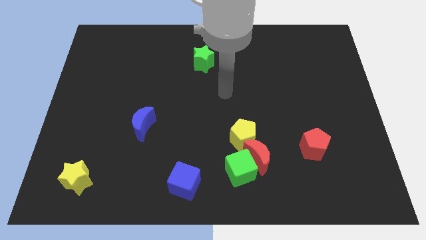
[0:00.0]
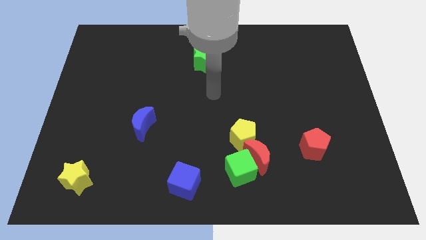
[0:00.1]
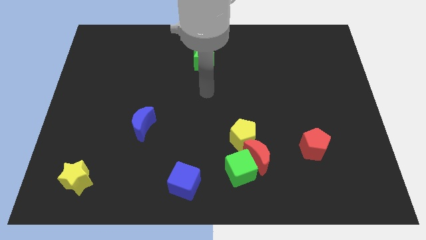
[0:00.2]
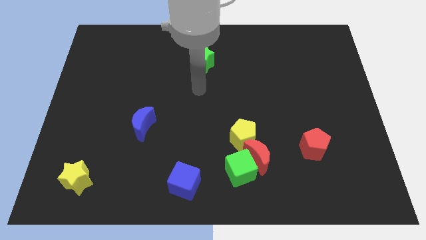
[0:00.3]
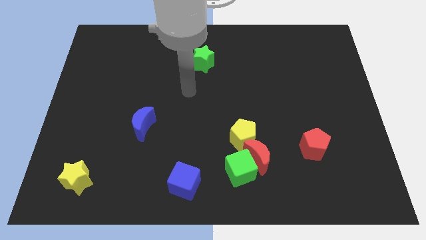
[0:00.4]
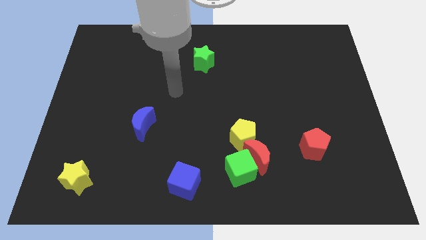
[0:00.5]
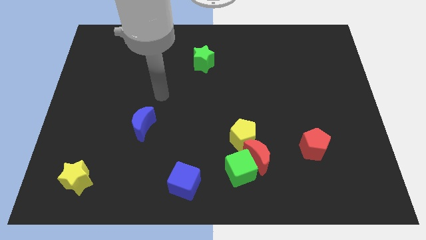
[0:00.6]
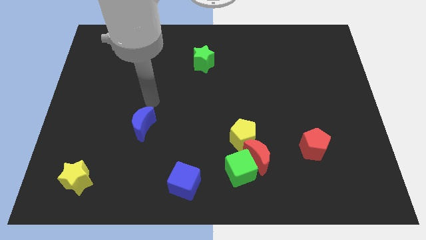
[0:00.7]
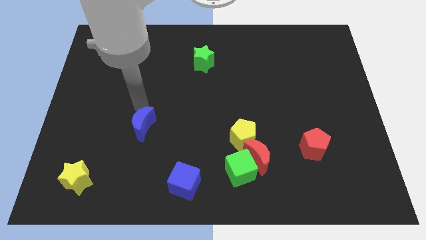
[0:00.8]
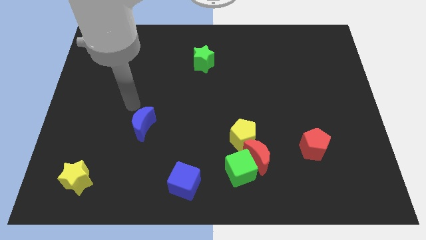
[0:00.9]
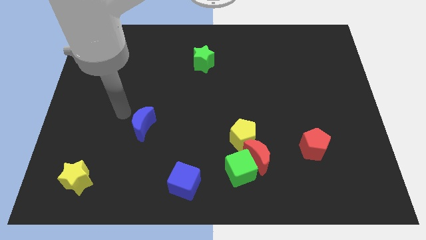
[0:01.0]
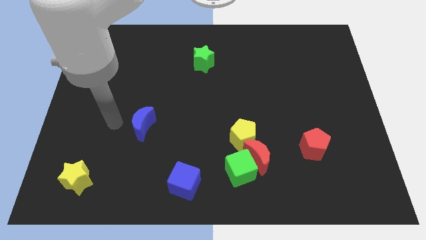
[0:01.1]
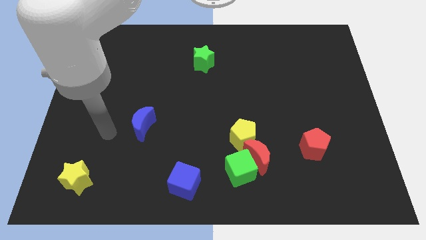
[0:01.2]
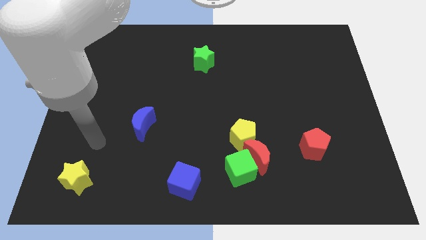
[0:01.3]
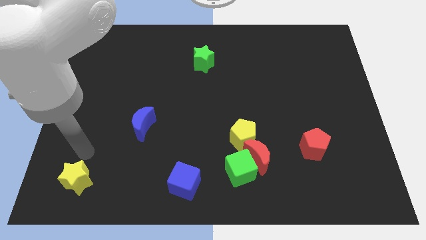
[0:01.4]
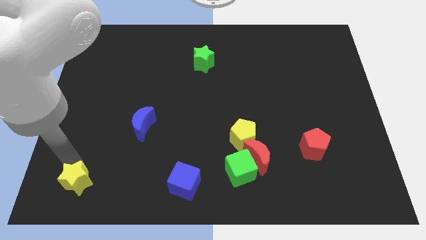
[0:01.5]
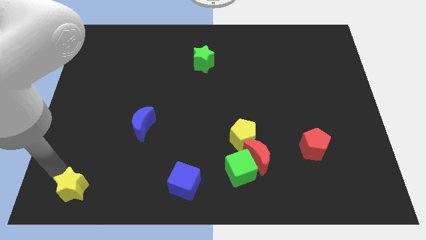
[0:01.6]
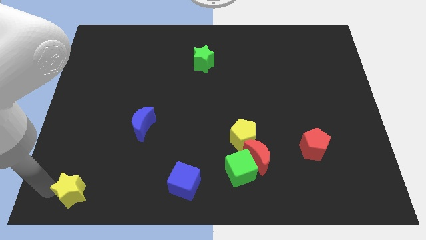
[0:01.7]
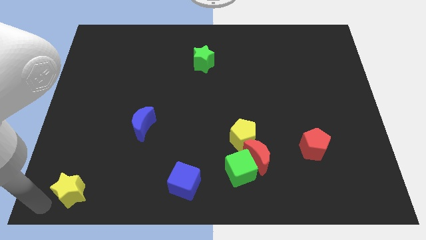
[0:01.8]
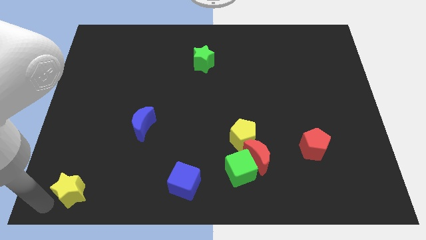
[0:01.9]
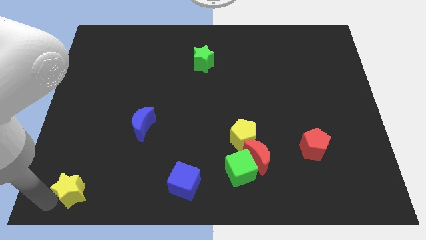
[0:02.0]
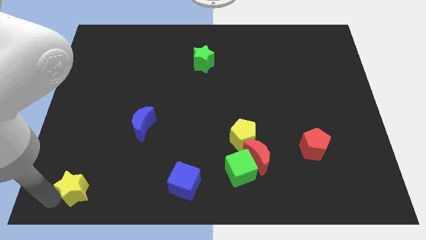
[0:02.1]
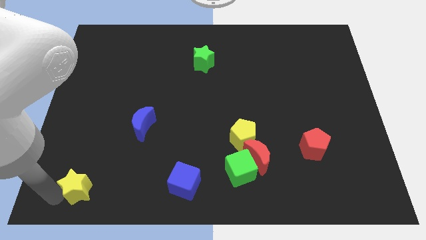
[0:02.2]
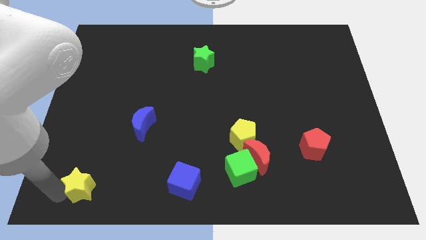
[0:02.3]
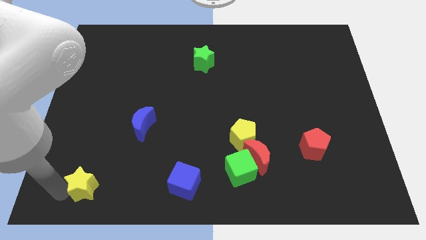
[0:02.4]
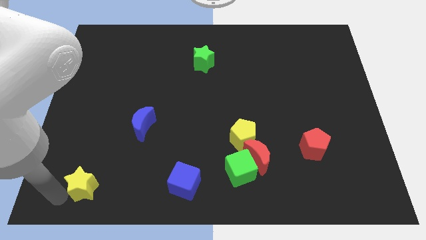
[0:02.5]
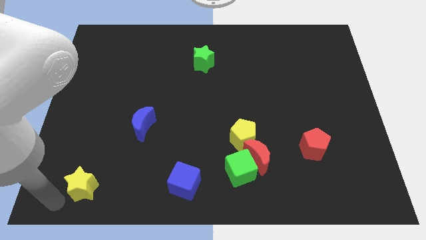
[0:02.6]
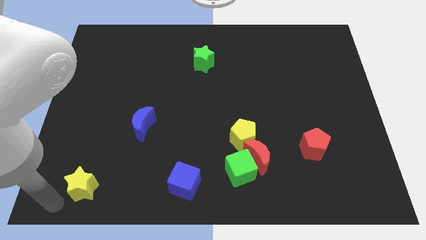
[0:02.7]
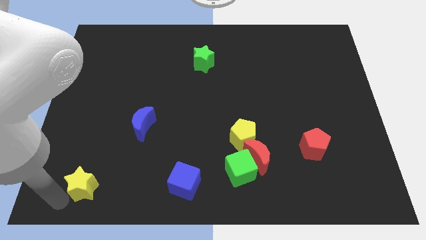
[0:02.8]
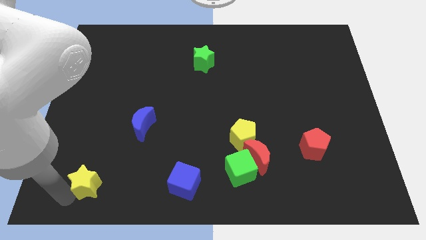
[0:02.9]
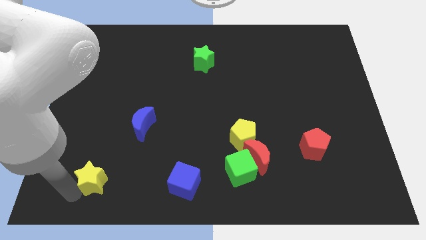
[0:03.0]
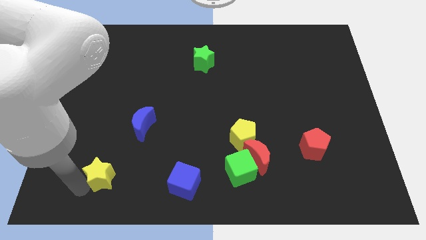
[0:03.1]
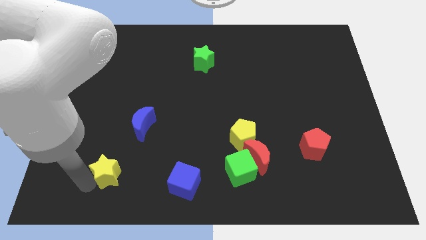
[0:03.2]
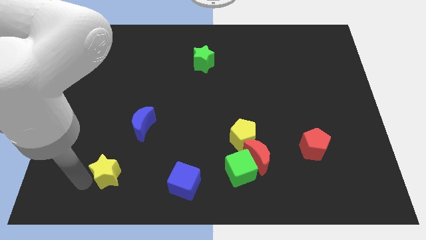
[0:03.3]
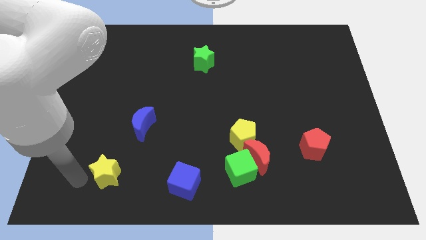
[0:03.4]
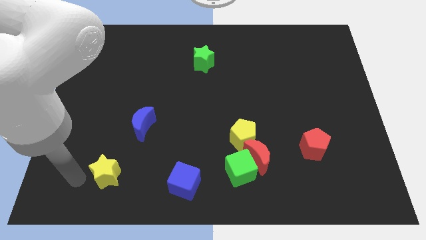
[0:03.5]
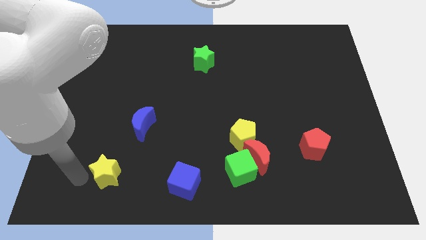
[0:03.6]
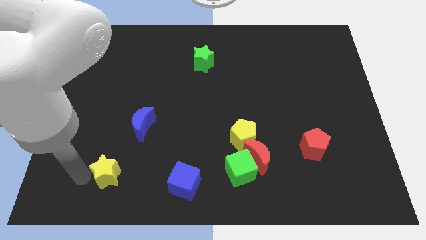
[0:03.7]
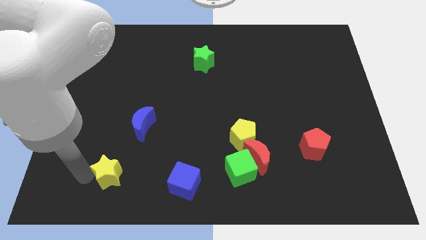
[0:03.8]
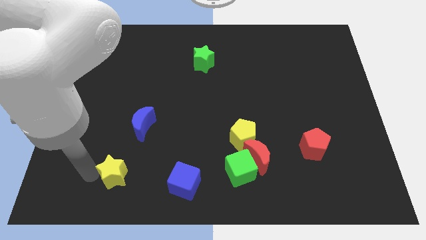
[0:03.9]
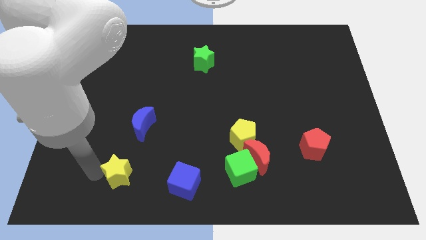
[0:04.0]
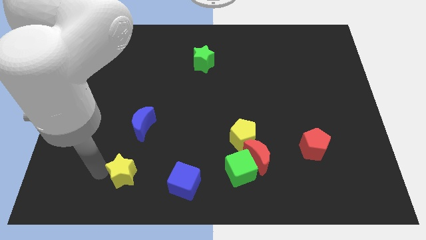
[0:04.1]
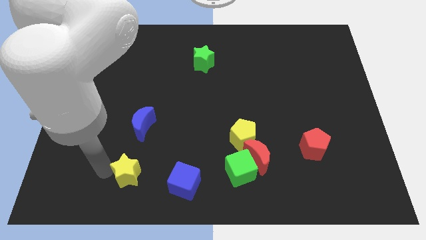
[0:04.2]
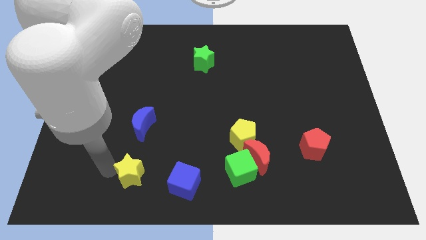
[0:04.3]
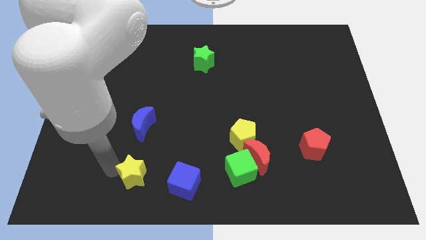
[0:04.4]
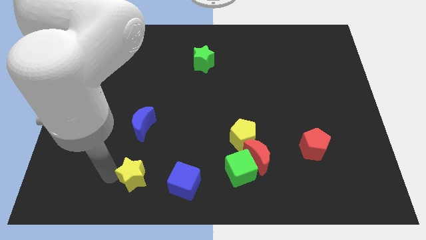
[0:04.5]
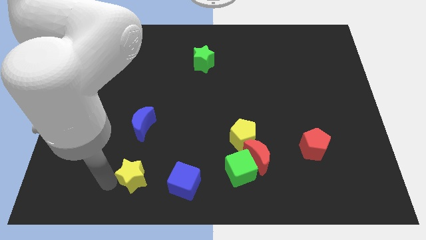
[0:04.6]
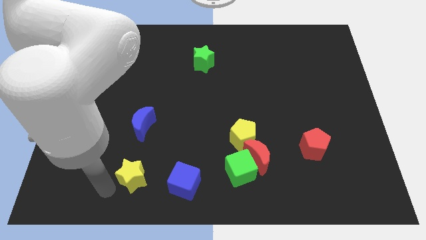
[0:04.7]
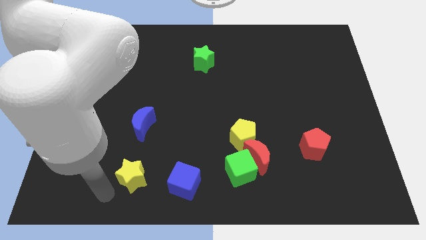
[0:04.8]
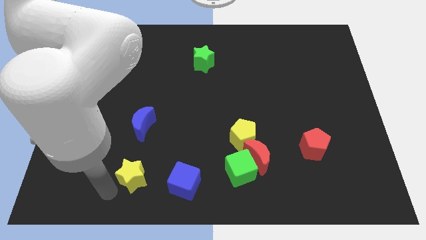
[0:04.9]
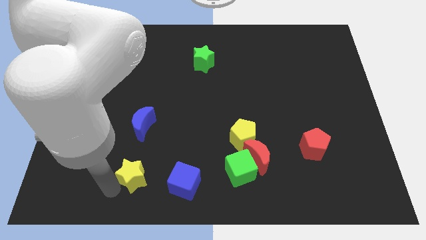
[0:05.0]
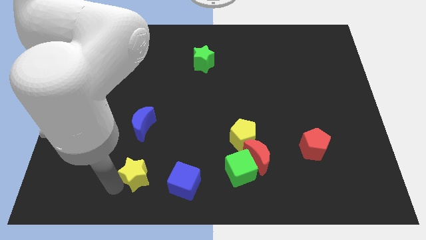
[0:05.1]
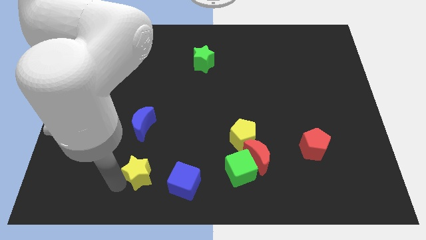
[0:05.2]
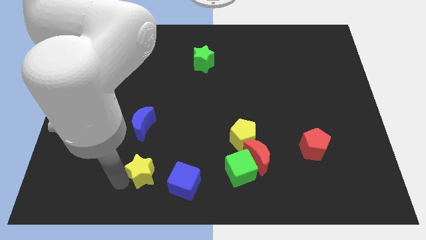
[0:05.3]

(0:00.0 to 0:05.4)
slide the yellow star to the top left of the blue cube

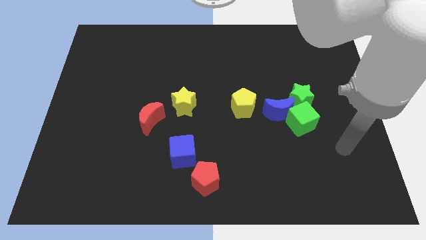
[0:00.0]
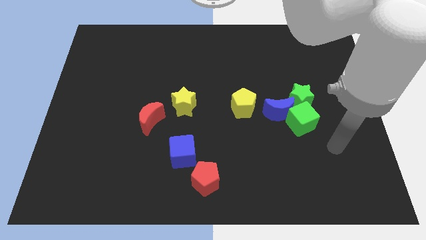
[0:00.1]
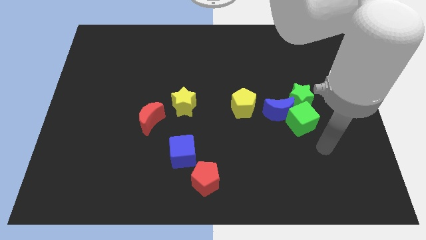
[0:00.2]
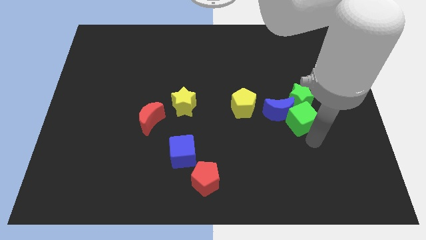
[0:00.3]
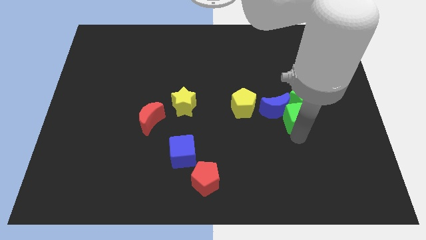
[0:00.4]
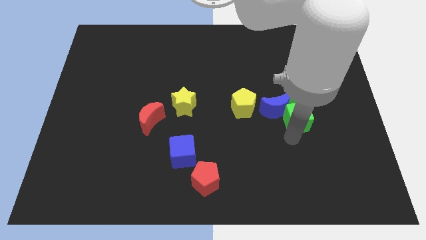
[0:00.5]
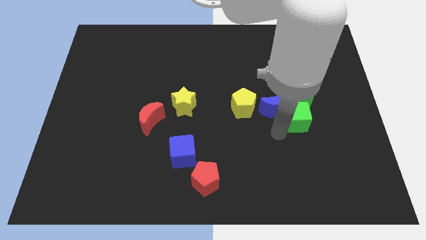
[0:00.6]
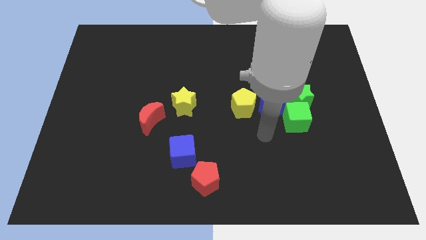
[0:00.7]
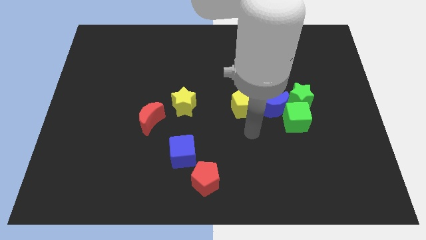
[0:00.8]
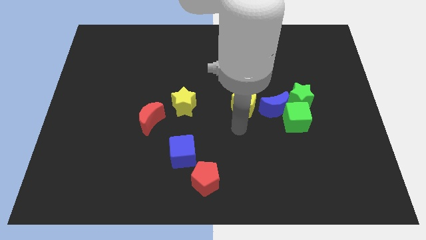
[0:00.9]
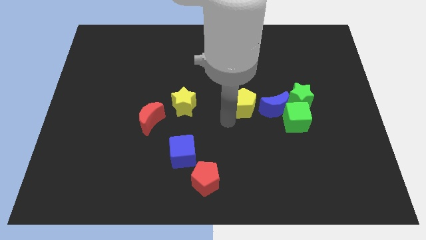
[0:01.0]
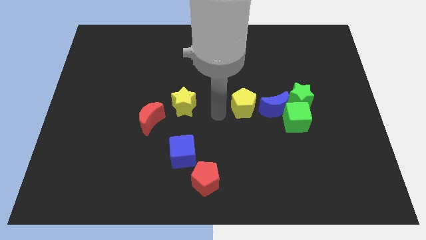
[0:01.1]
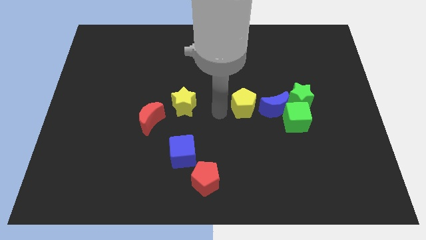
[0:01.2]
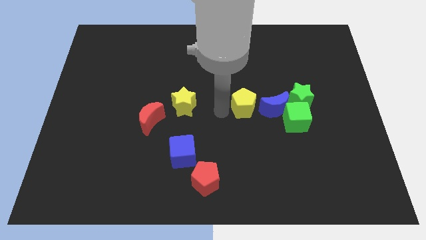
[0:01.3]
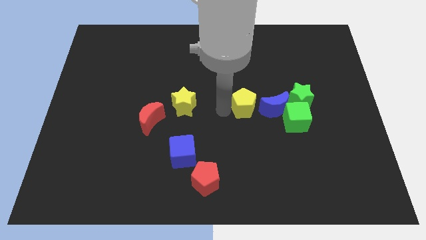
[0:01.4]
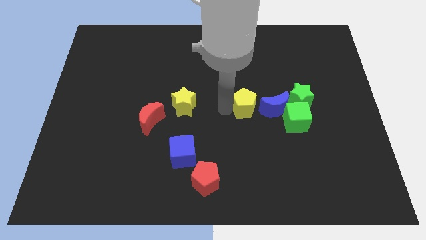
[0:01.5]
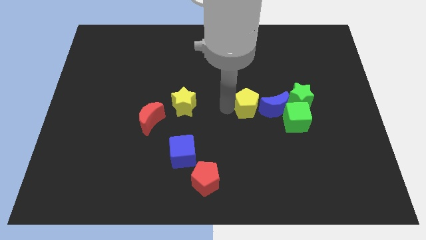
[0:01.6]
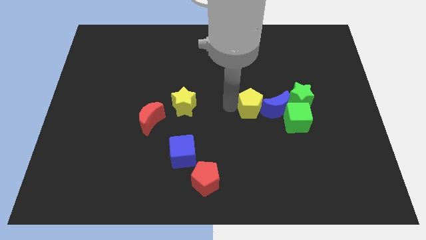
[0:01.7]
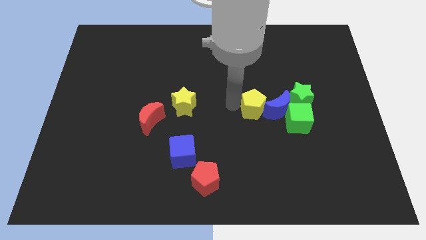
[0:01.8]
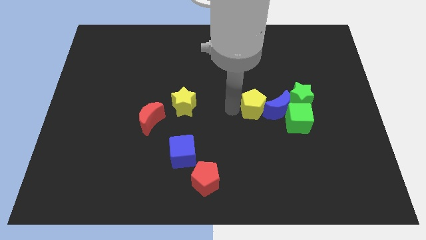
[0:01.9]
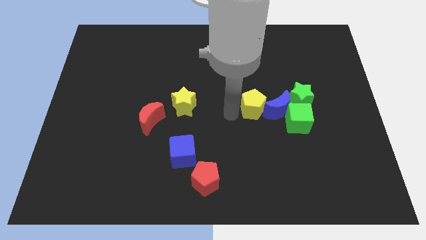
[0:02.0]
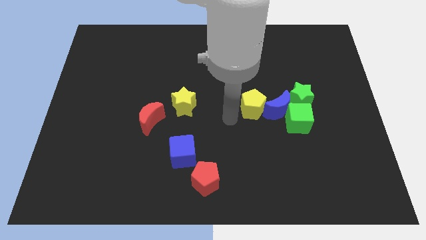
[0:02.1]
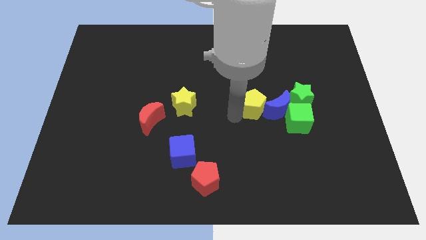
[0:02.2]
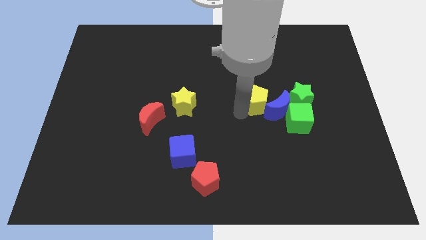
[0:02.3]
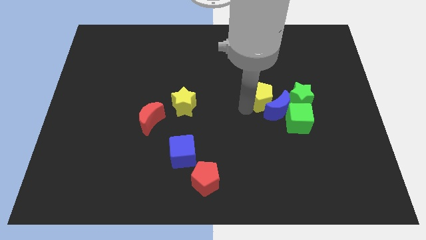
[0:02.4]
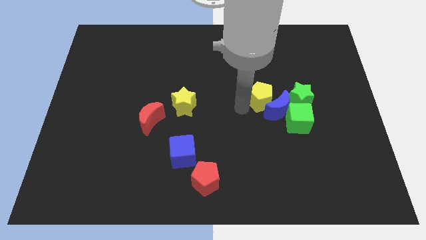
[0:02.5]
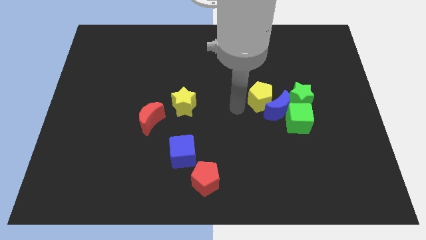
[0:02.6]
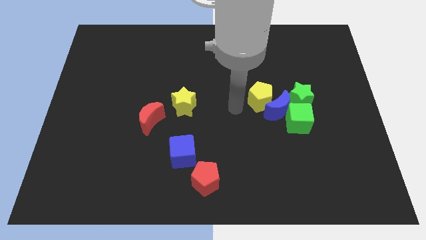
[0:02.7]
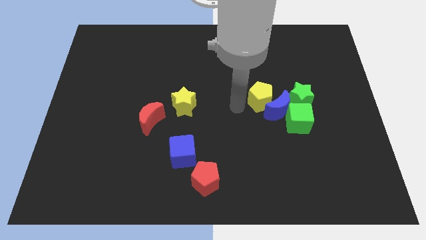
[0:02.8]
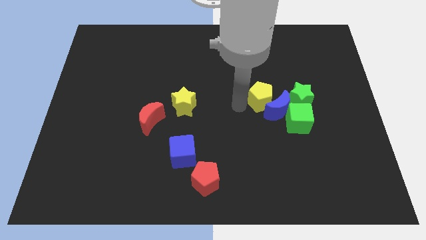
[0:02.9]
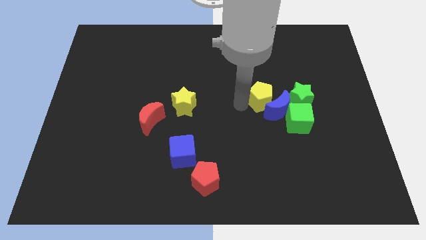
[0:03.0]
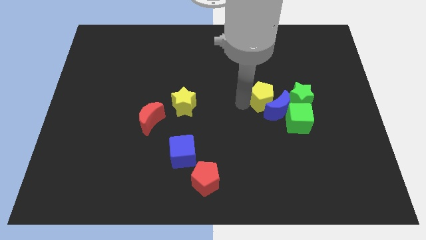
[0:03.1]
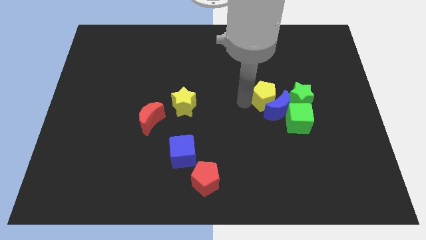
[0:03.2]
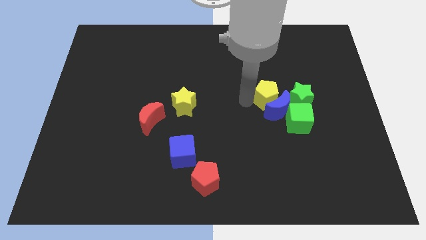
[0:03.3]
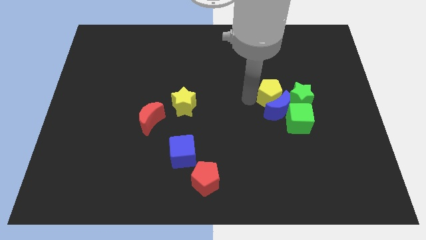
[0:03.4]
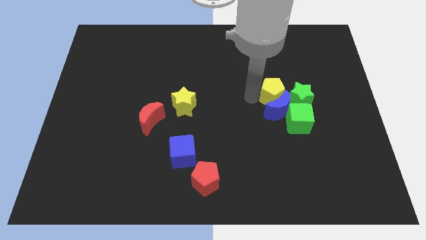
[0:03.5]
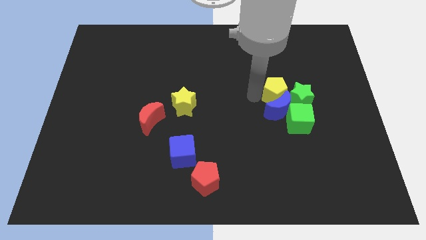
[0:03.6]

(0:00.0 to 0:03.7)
push the yellow pentagon to the top of the green cube
